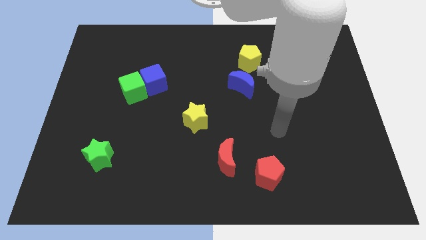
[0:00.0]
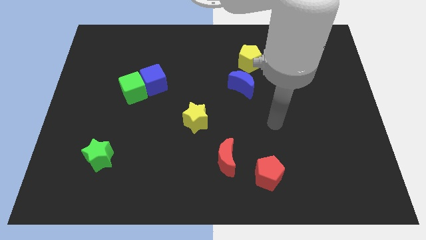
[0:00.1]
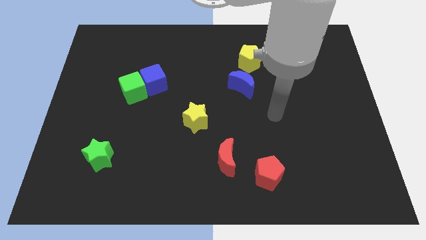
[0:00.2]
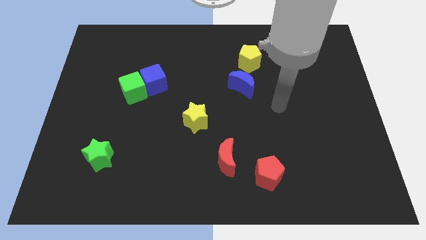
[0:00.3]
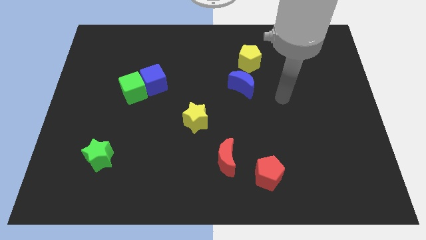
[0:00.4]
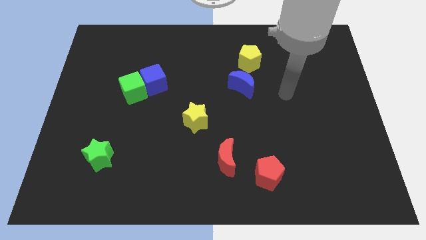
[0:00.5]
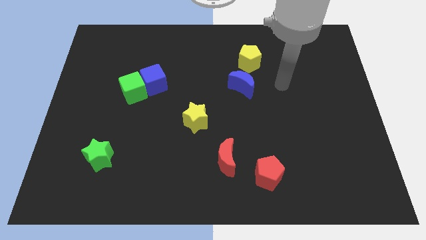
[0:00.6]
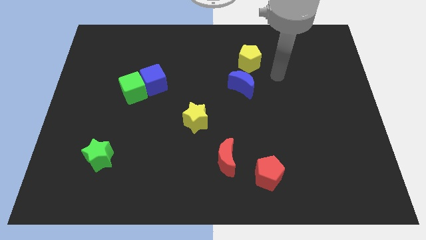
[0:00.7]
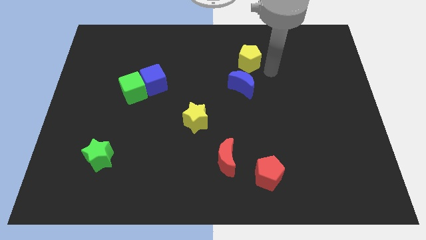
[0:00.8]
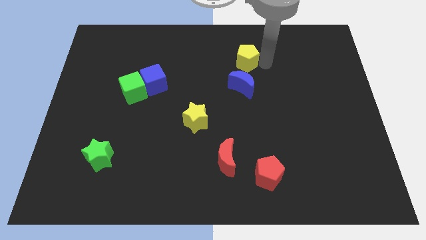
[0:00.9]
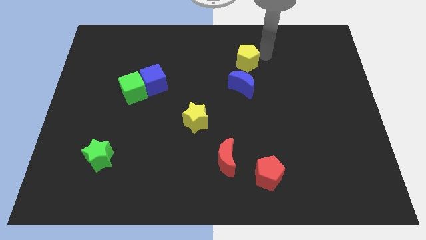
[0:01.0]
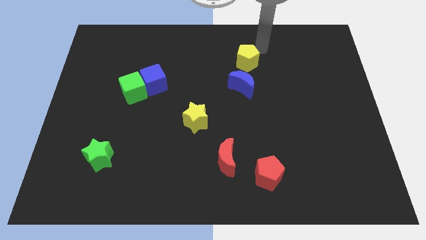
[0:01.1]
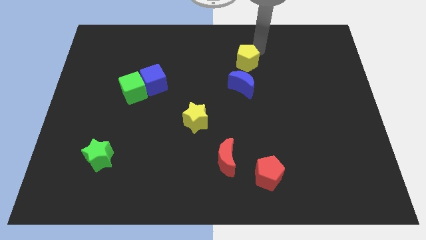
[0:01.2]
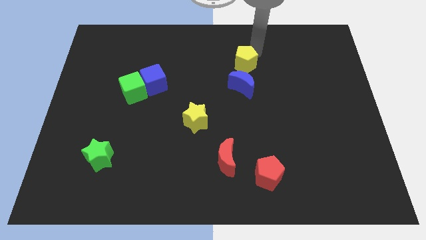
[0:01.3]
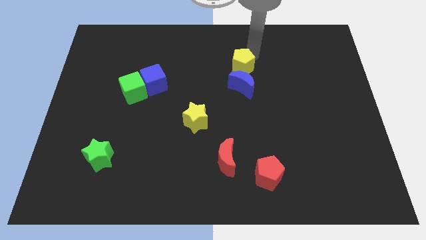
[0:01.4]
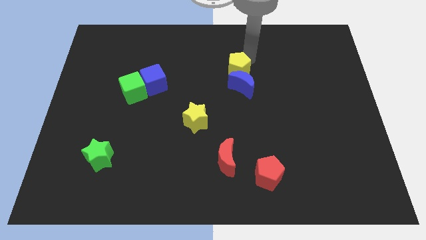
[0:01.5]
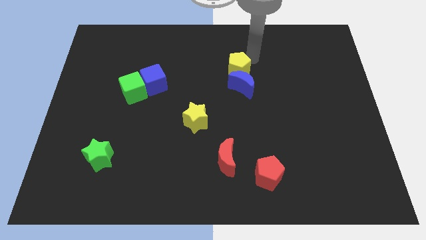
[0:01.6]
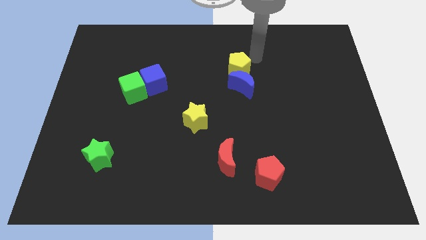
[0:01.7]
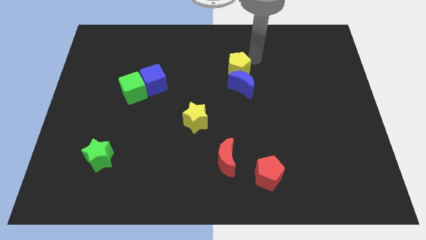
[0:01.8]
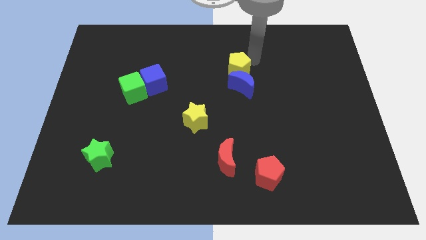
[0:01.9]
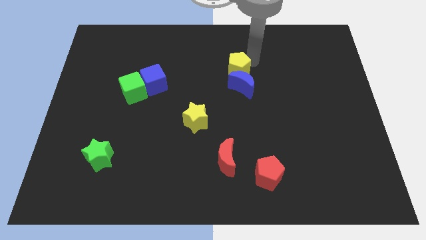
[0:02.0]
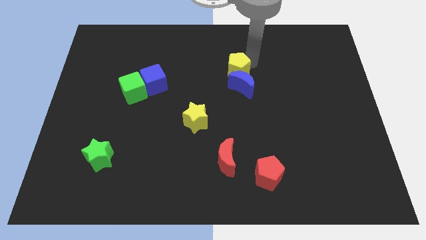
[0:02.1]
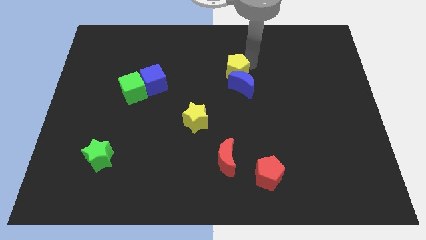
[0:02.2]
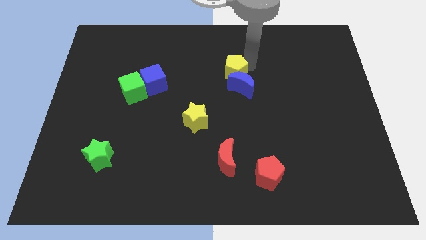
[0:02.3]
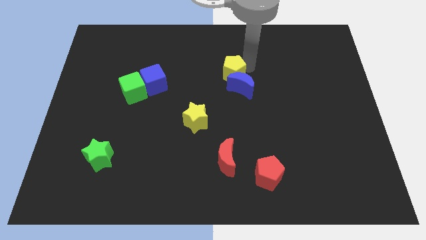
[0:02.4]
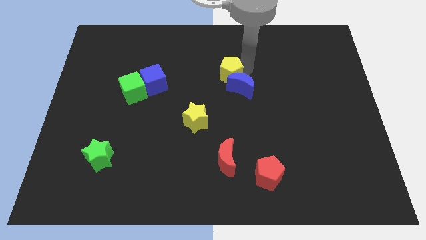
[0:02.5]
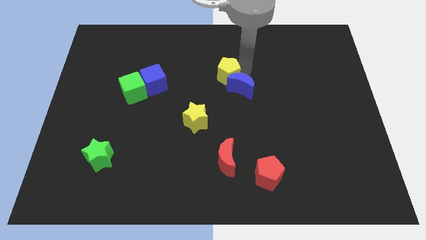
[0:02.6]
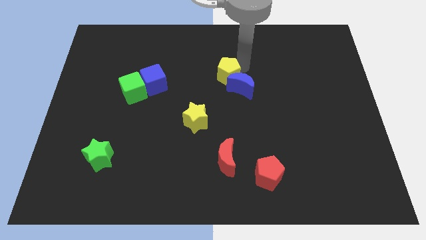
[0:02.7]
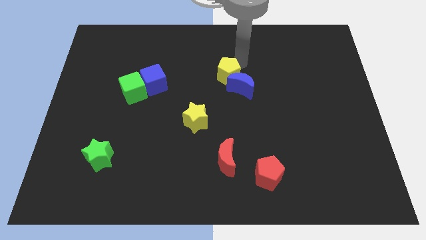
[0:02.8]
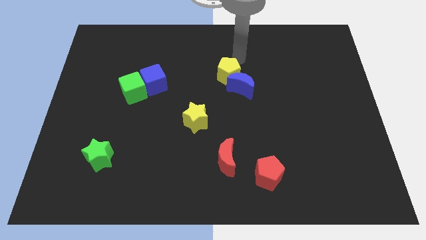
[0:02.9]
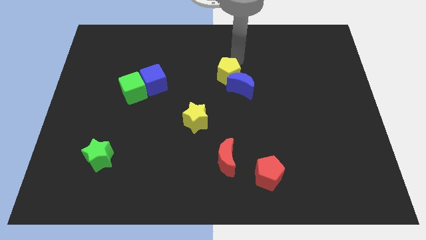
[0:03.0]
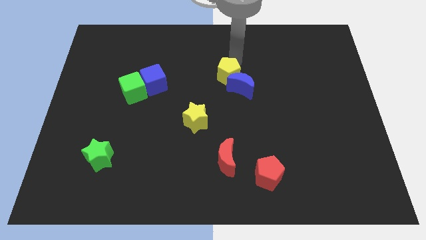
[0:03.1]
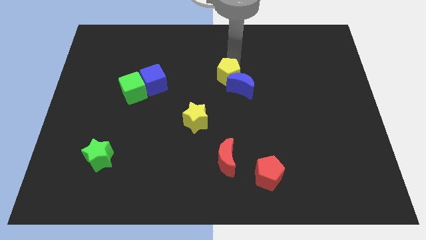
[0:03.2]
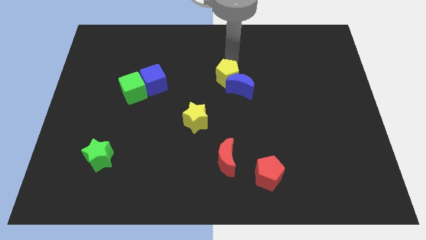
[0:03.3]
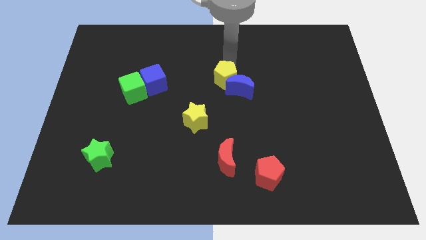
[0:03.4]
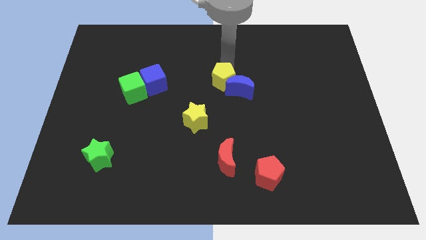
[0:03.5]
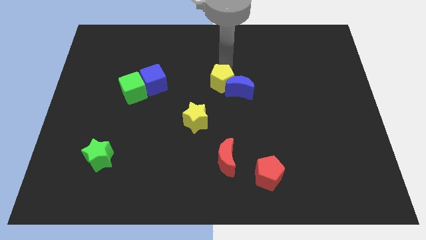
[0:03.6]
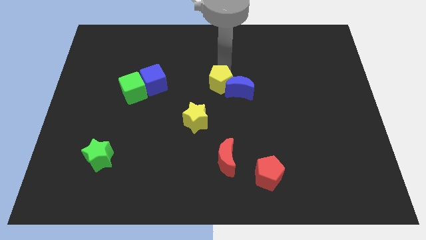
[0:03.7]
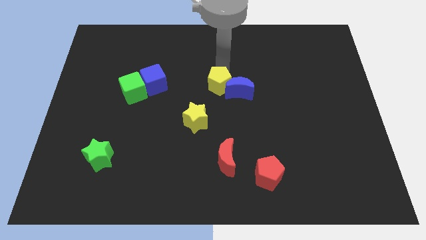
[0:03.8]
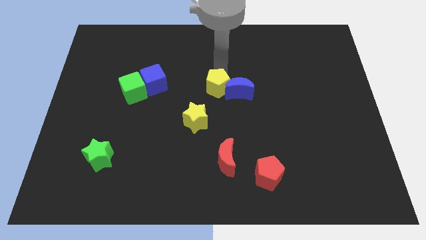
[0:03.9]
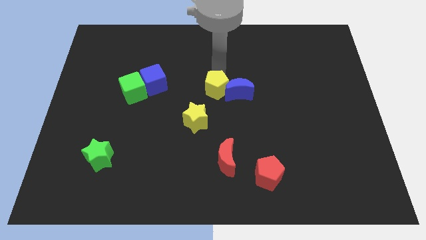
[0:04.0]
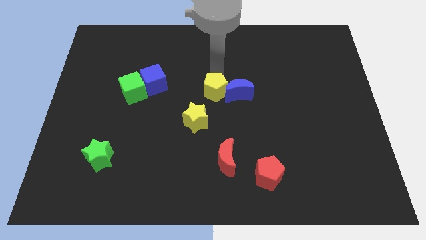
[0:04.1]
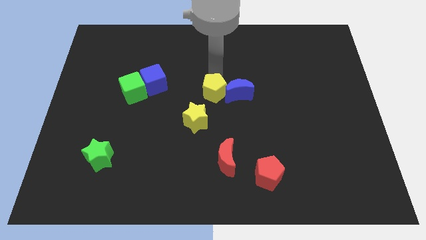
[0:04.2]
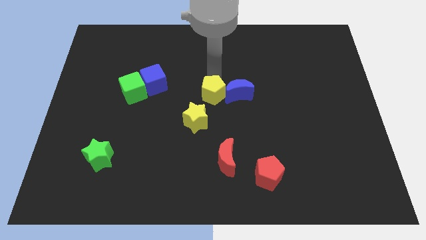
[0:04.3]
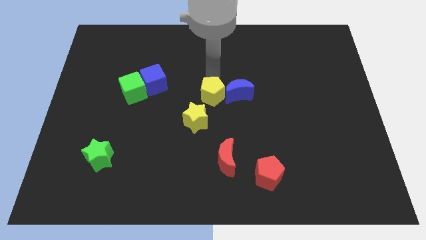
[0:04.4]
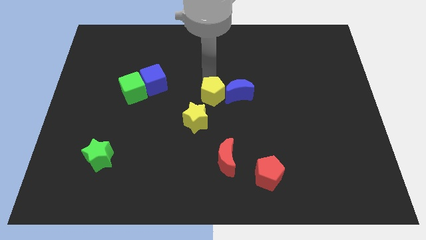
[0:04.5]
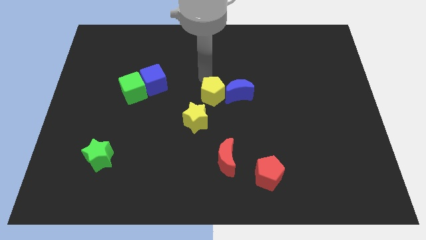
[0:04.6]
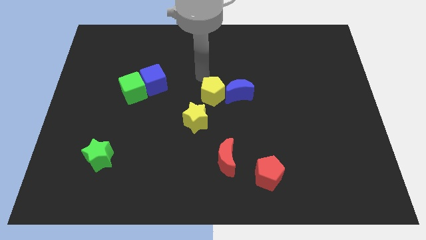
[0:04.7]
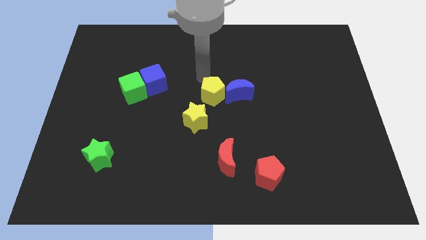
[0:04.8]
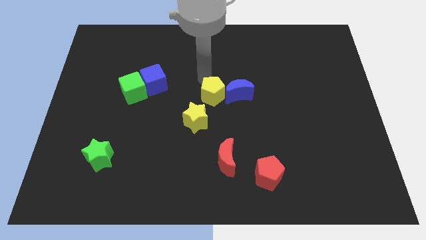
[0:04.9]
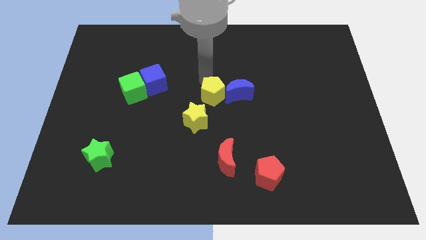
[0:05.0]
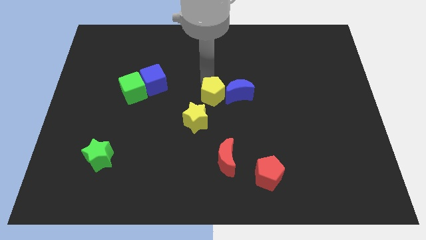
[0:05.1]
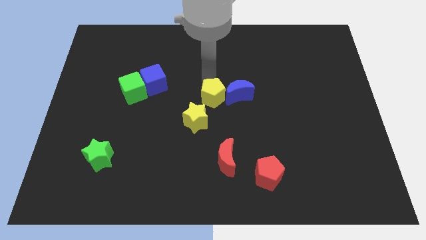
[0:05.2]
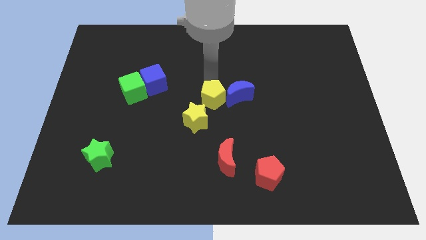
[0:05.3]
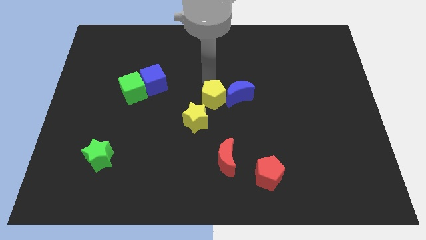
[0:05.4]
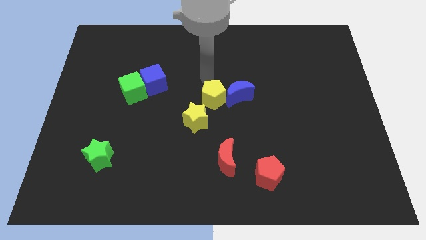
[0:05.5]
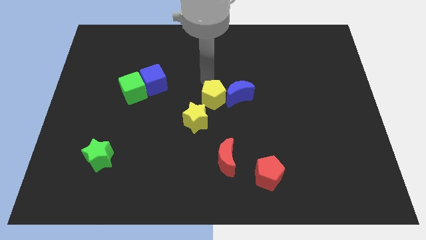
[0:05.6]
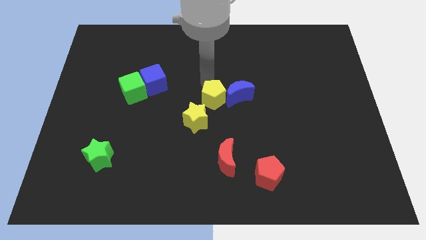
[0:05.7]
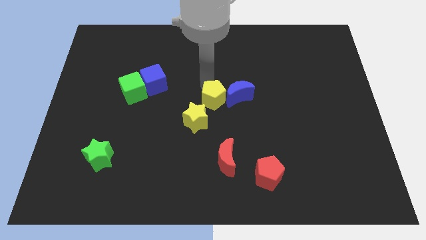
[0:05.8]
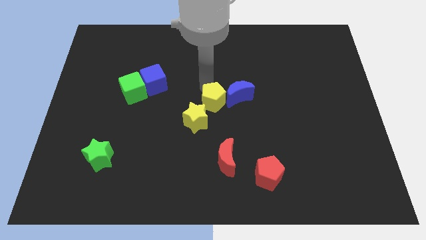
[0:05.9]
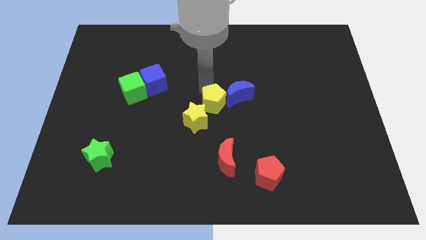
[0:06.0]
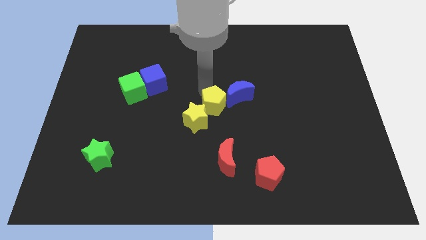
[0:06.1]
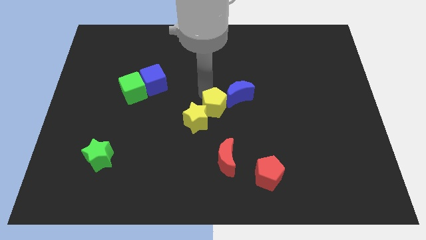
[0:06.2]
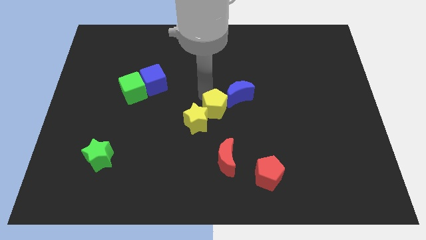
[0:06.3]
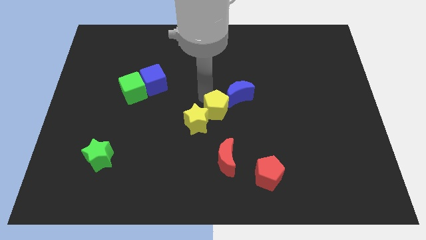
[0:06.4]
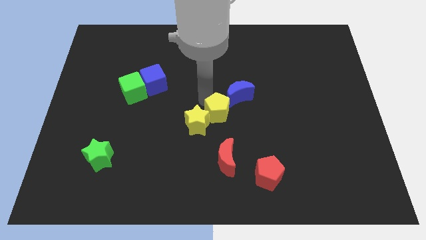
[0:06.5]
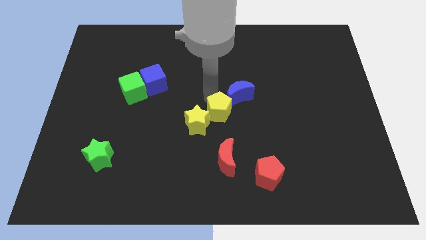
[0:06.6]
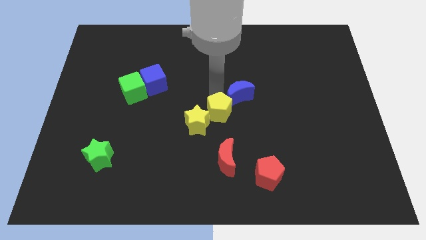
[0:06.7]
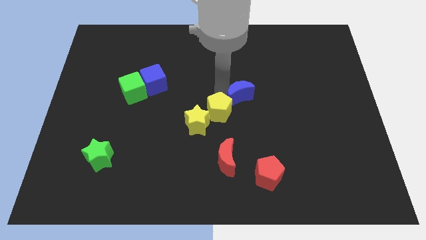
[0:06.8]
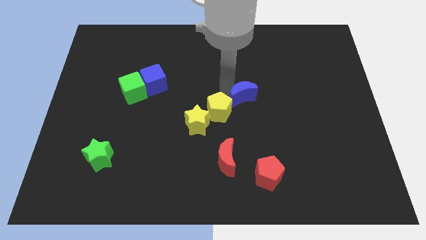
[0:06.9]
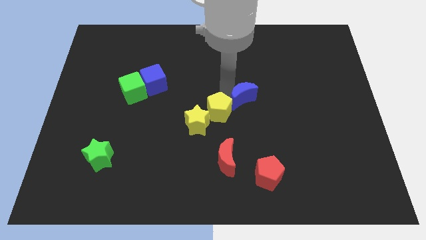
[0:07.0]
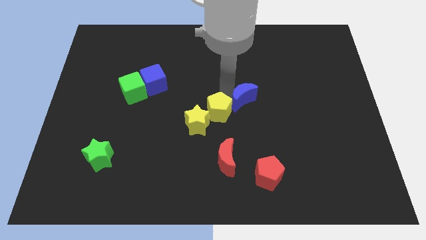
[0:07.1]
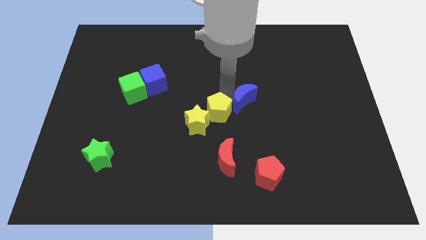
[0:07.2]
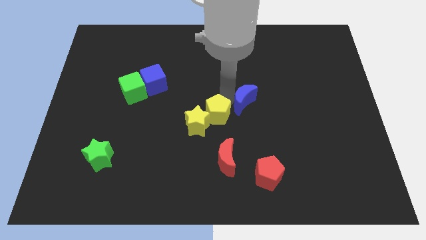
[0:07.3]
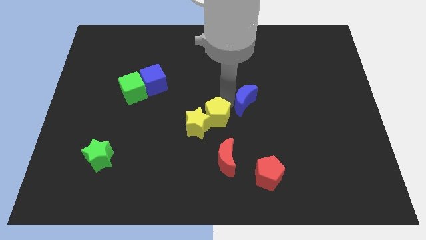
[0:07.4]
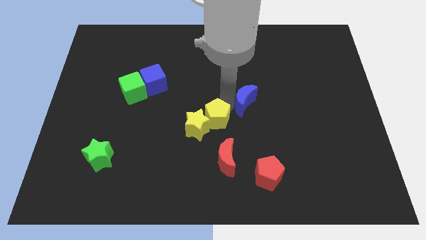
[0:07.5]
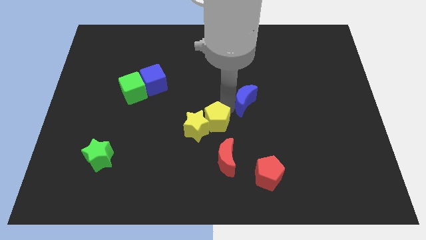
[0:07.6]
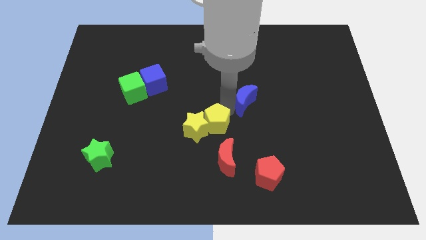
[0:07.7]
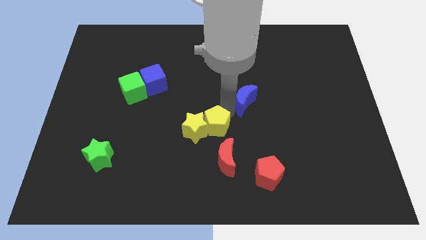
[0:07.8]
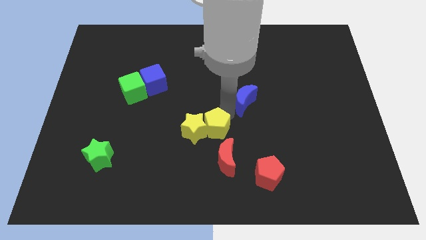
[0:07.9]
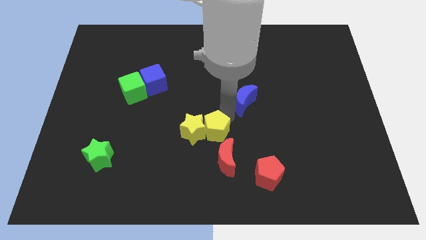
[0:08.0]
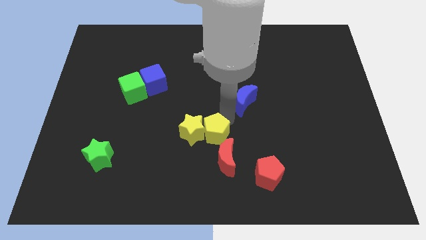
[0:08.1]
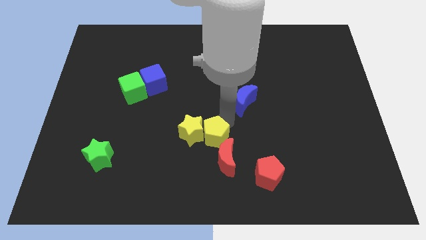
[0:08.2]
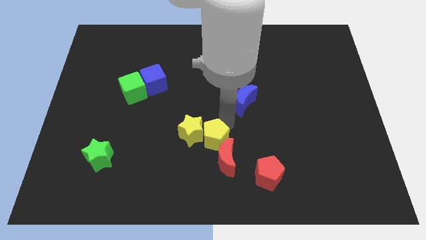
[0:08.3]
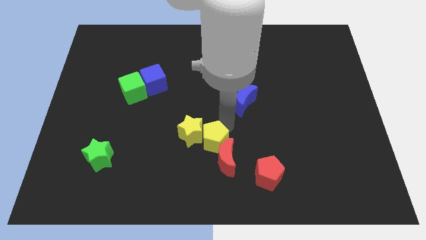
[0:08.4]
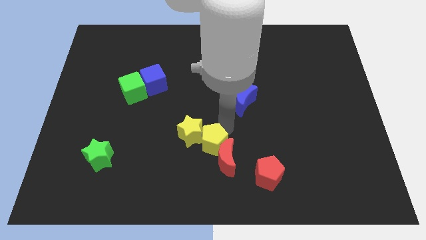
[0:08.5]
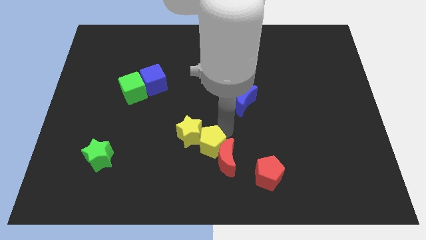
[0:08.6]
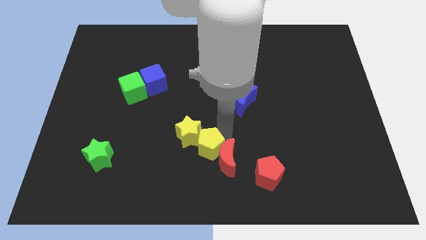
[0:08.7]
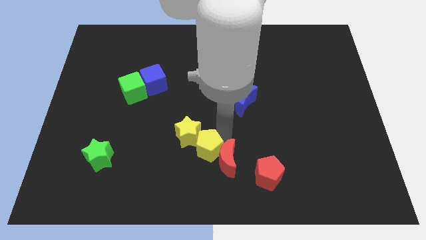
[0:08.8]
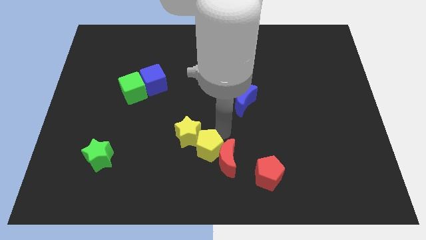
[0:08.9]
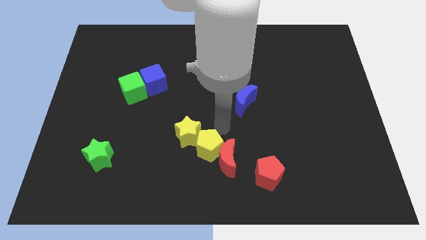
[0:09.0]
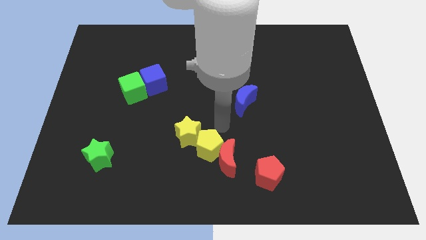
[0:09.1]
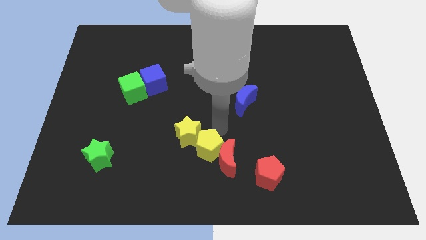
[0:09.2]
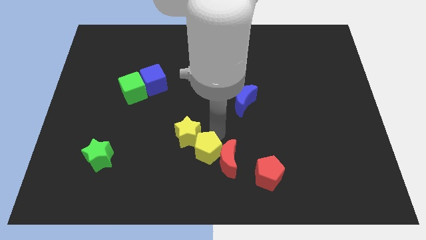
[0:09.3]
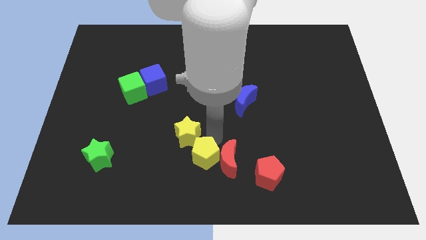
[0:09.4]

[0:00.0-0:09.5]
move the yellow pentagon to the bottom side
